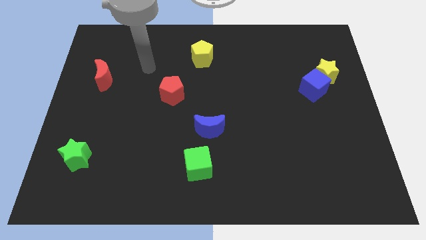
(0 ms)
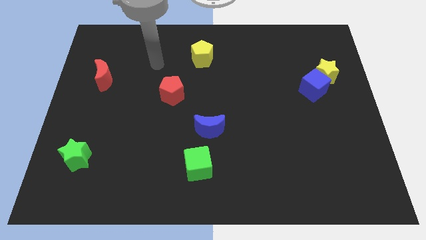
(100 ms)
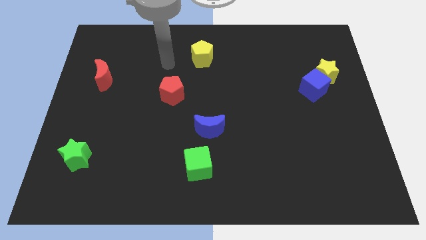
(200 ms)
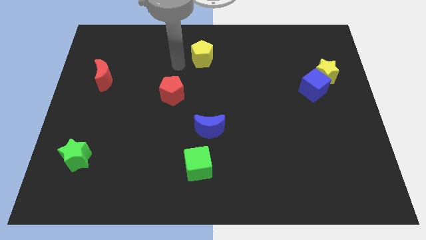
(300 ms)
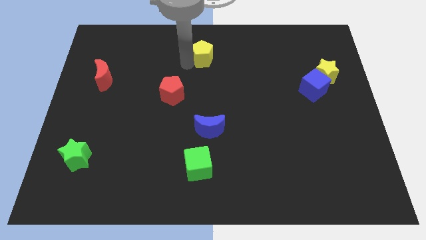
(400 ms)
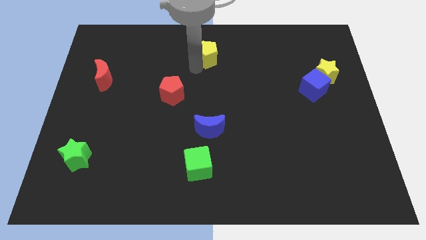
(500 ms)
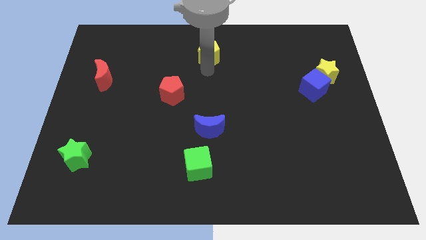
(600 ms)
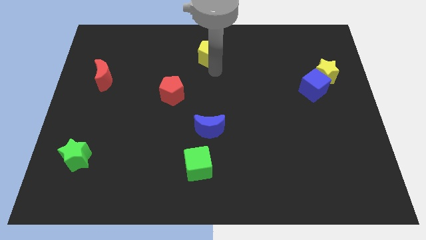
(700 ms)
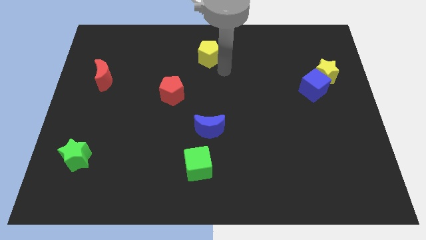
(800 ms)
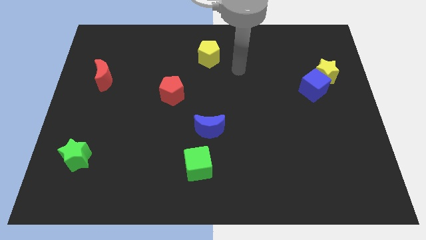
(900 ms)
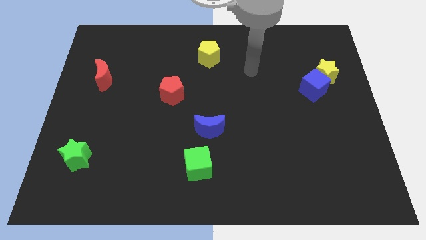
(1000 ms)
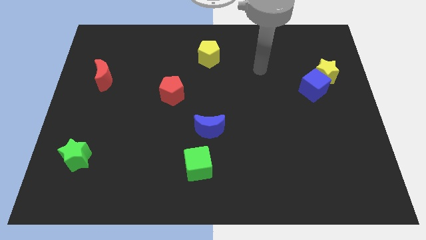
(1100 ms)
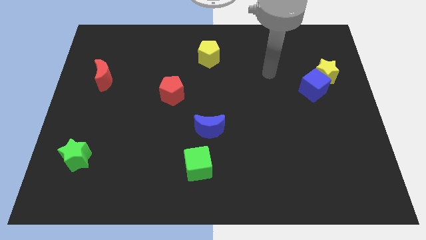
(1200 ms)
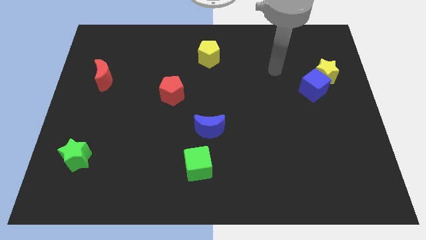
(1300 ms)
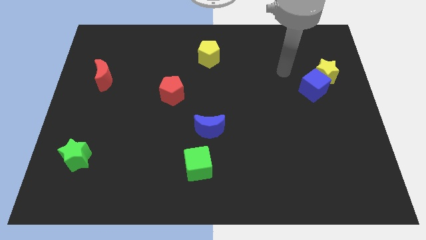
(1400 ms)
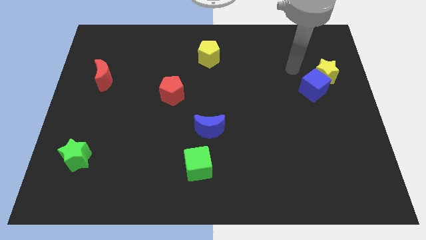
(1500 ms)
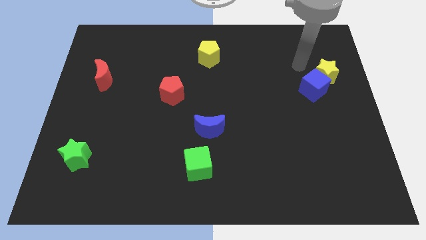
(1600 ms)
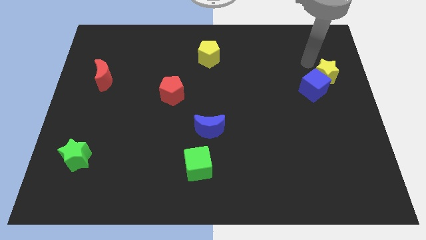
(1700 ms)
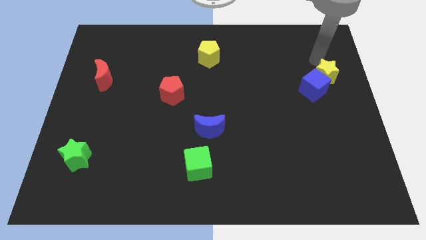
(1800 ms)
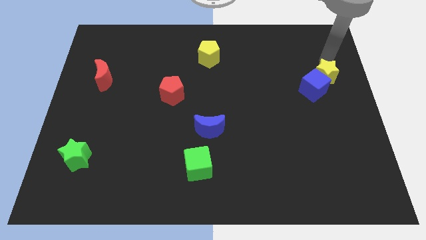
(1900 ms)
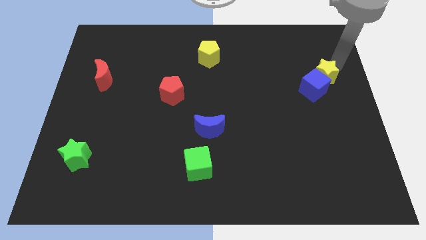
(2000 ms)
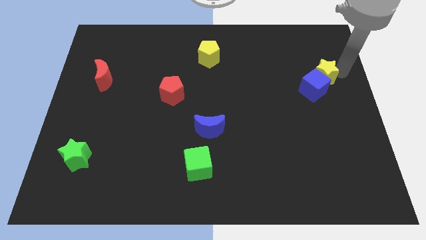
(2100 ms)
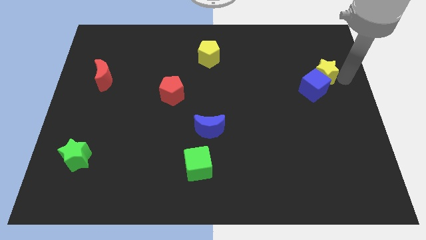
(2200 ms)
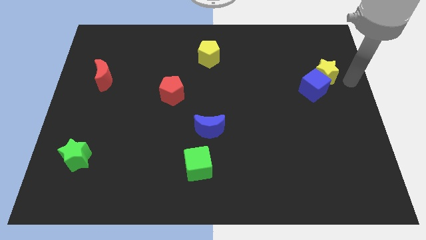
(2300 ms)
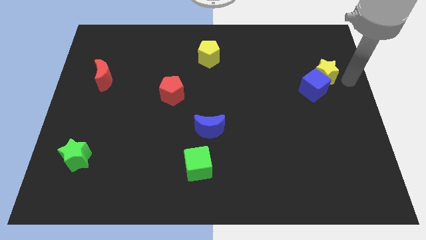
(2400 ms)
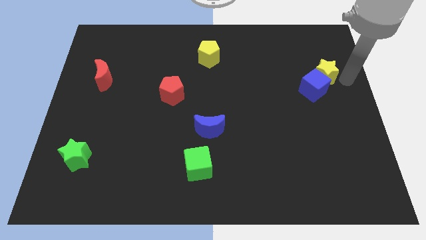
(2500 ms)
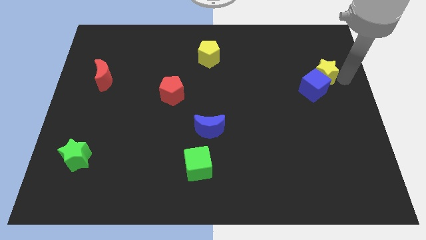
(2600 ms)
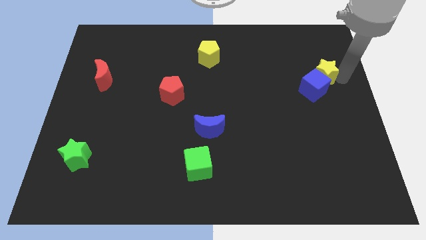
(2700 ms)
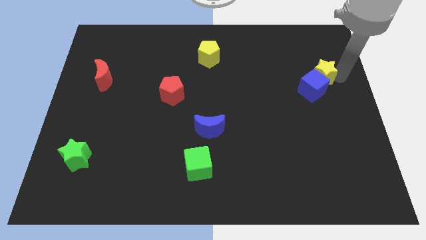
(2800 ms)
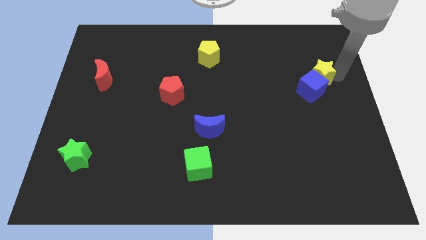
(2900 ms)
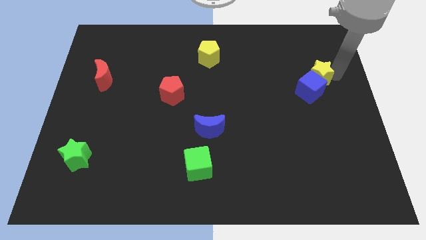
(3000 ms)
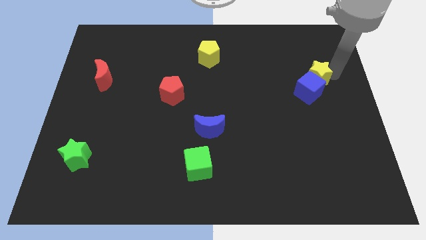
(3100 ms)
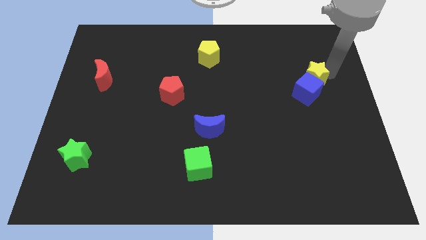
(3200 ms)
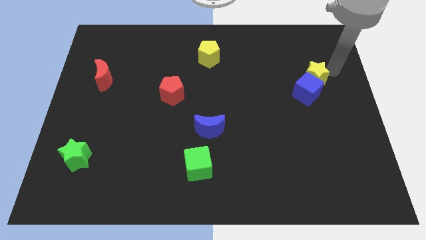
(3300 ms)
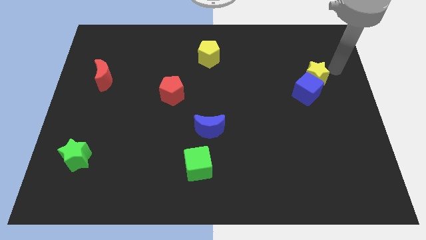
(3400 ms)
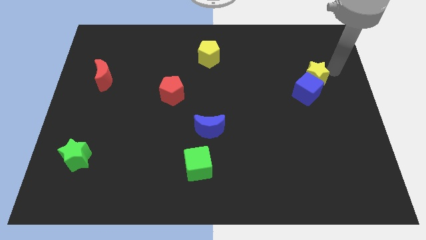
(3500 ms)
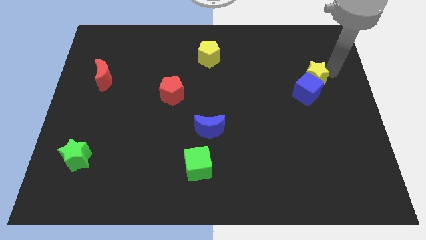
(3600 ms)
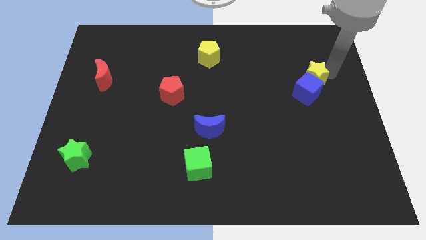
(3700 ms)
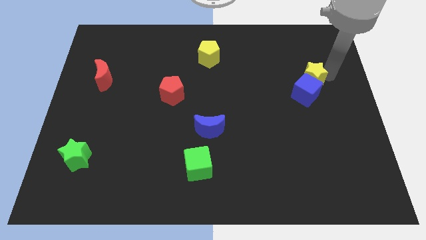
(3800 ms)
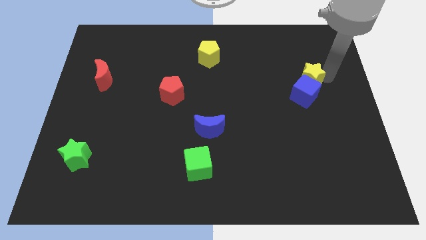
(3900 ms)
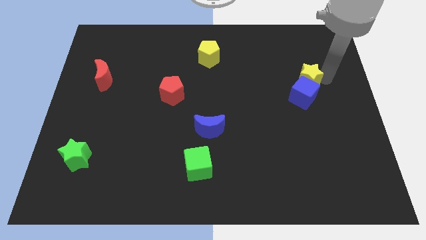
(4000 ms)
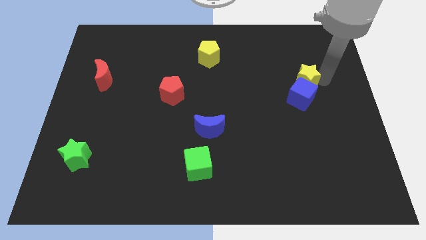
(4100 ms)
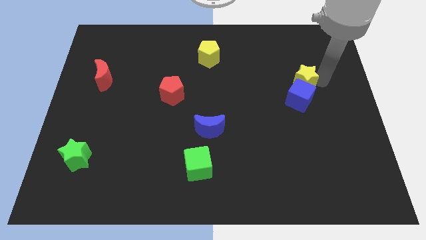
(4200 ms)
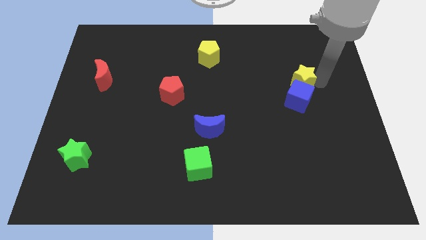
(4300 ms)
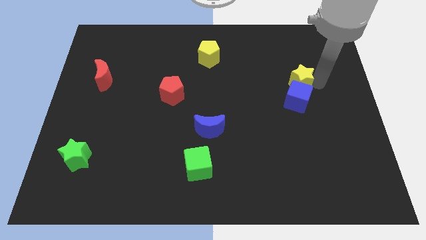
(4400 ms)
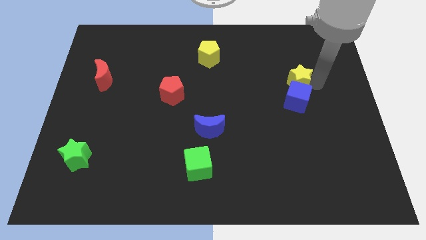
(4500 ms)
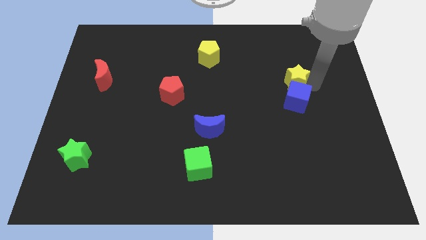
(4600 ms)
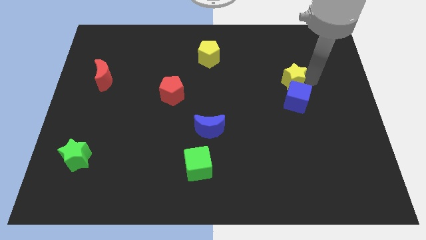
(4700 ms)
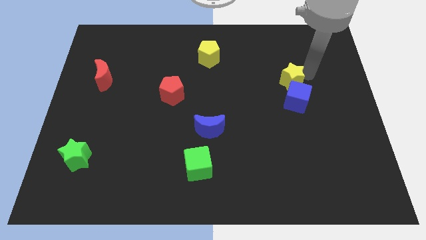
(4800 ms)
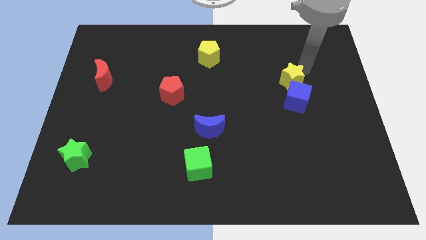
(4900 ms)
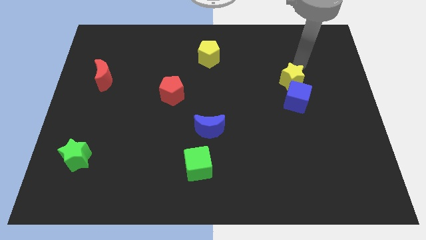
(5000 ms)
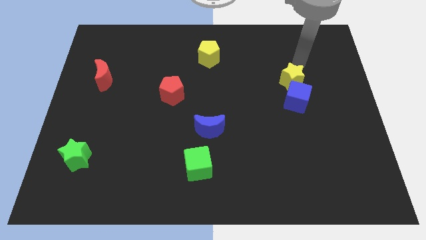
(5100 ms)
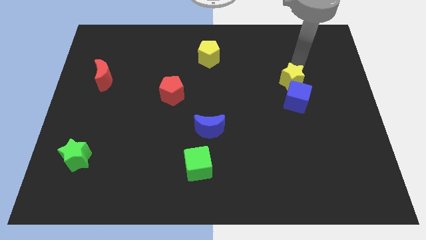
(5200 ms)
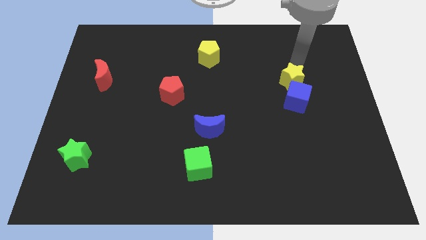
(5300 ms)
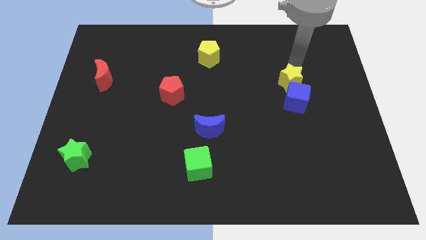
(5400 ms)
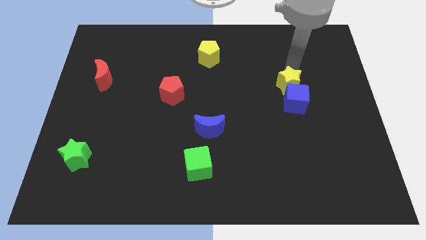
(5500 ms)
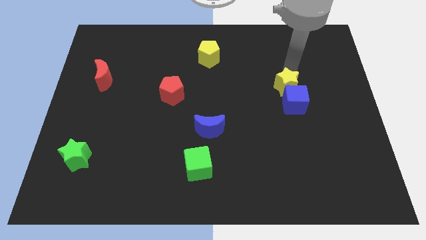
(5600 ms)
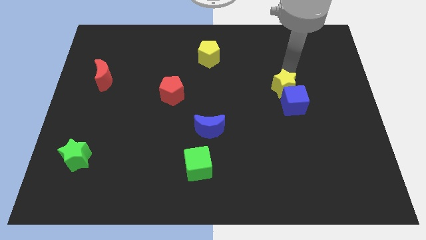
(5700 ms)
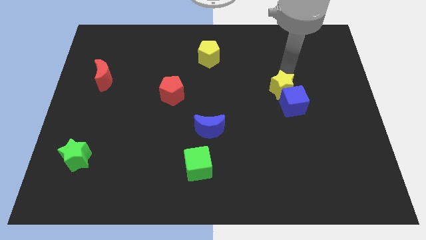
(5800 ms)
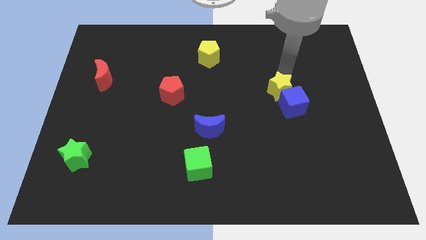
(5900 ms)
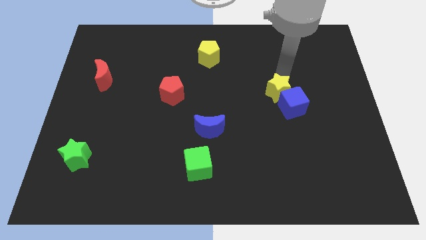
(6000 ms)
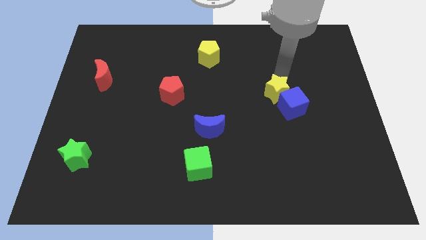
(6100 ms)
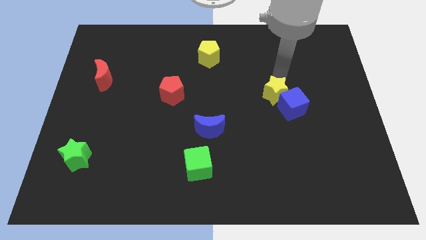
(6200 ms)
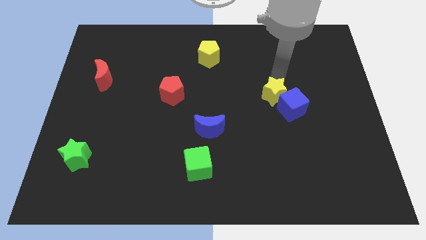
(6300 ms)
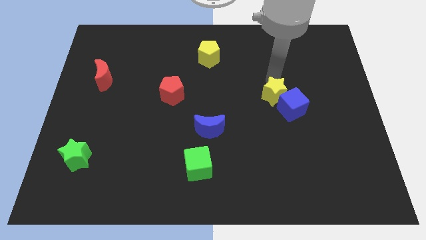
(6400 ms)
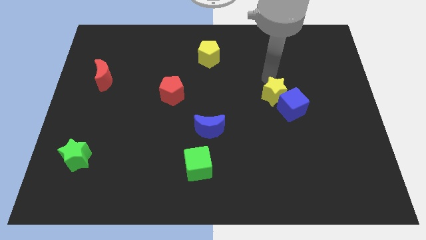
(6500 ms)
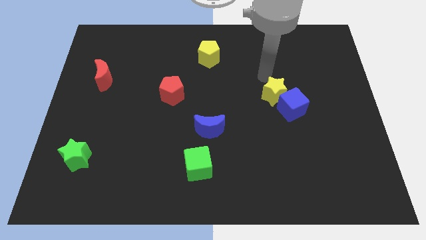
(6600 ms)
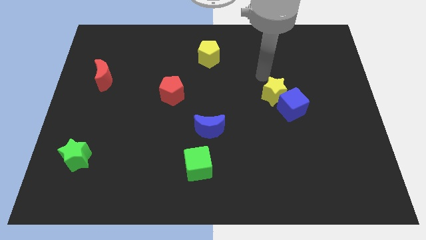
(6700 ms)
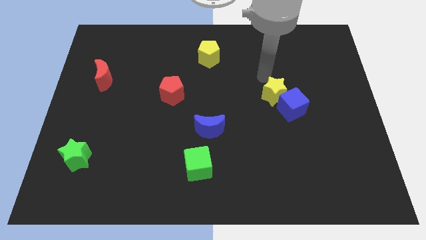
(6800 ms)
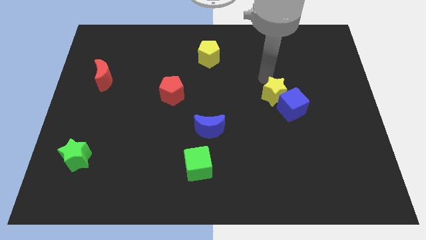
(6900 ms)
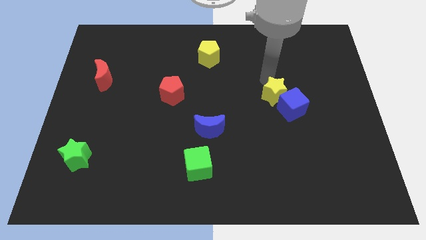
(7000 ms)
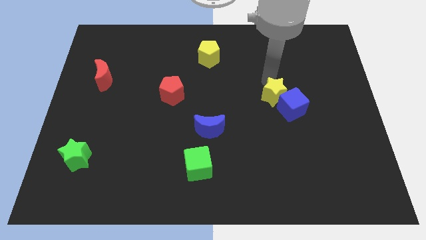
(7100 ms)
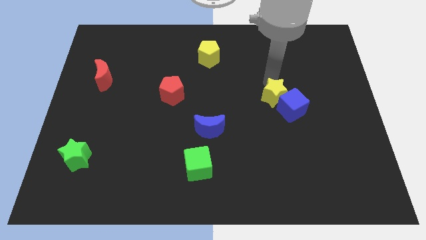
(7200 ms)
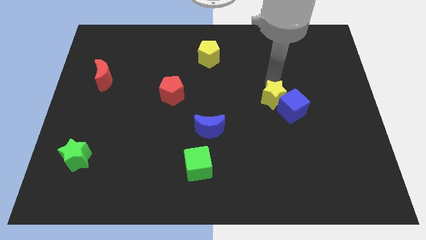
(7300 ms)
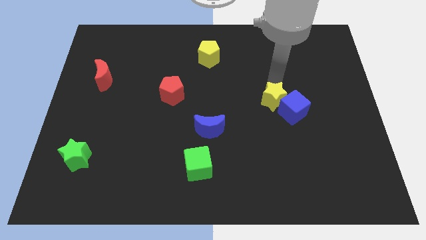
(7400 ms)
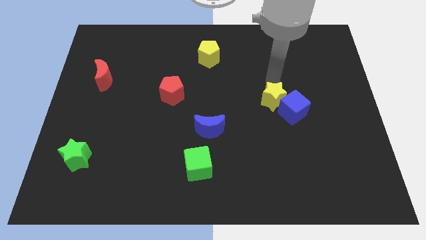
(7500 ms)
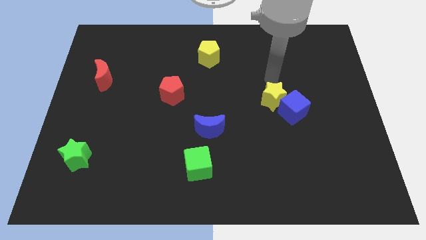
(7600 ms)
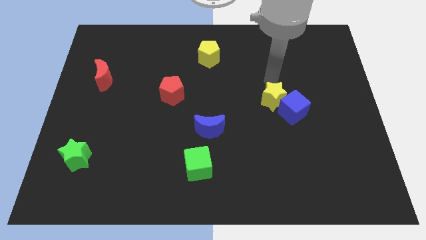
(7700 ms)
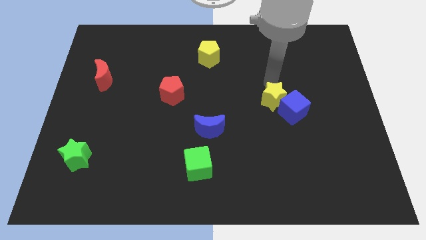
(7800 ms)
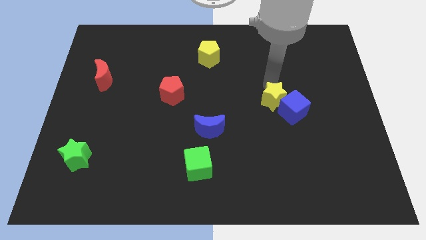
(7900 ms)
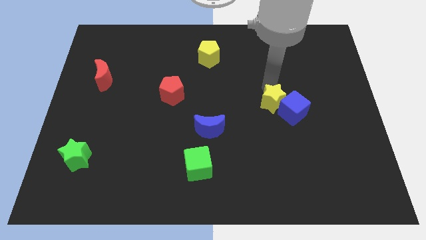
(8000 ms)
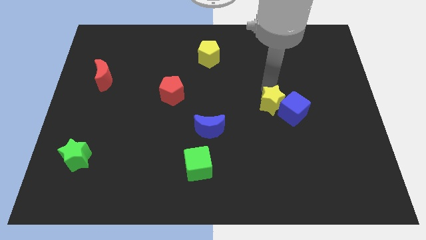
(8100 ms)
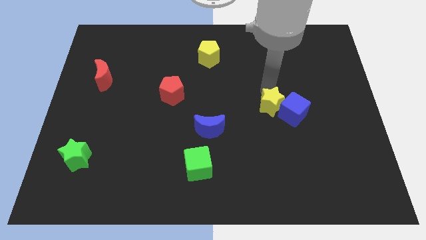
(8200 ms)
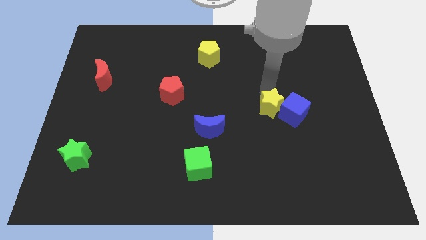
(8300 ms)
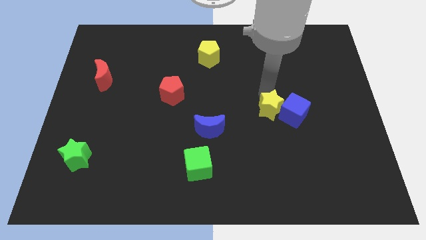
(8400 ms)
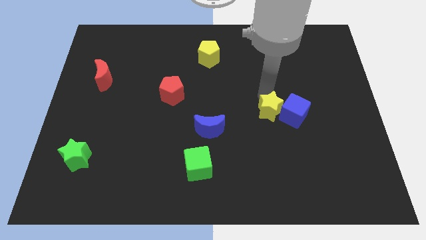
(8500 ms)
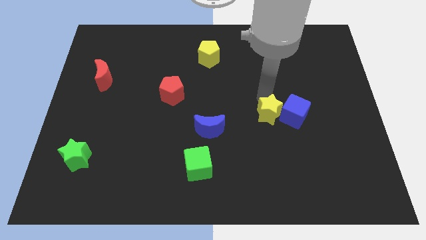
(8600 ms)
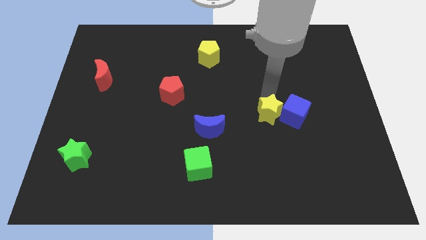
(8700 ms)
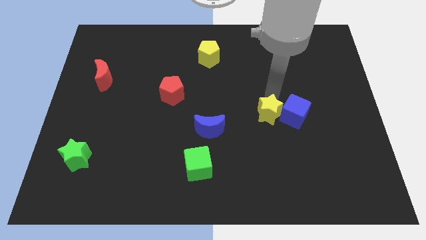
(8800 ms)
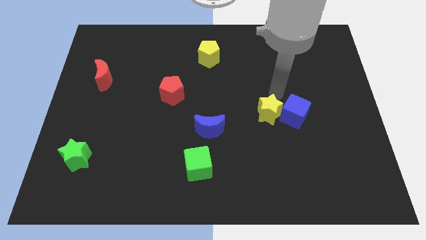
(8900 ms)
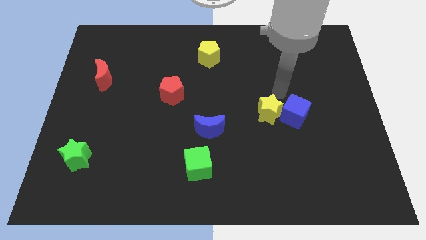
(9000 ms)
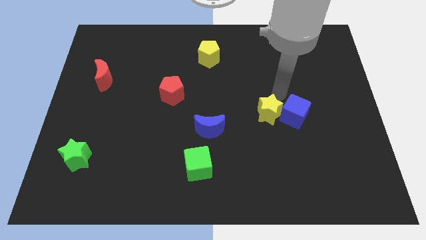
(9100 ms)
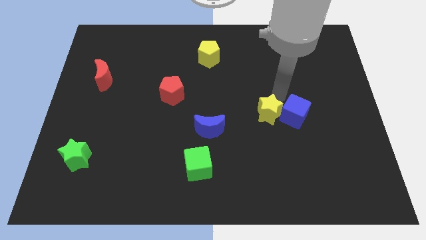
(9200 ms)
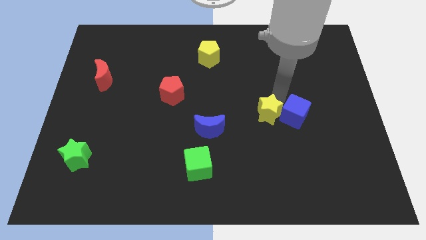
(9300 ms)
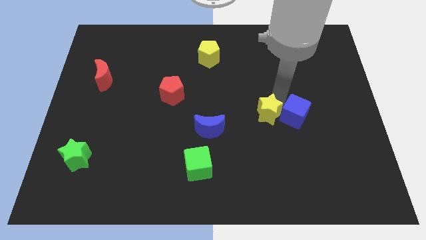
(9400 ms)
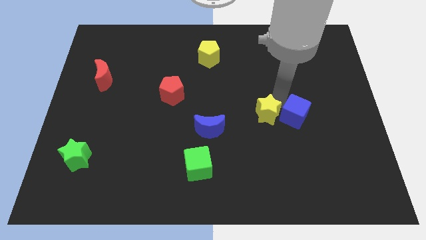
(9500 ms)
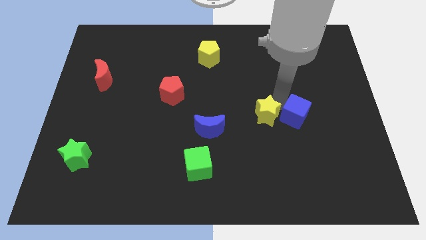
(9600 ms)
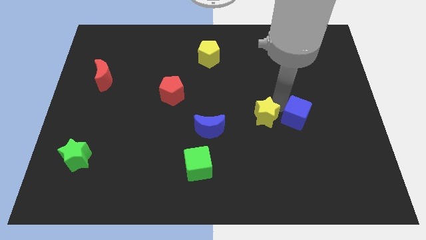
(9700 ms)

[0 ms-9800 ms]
move the yellow star downwards and left diagonally
